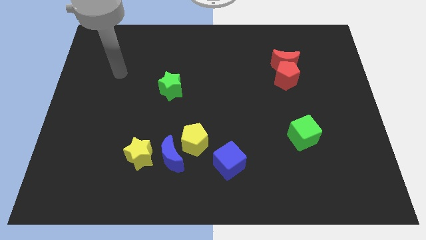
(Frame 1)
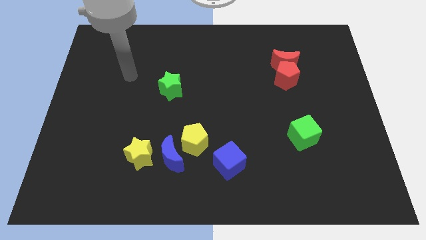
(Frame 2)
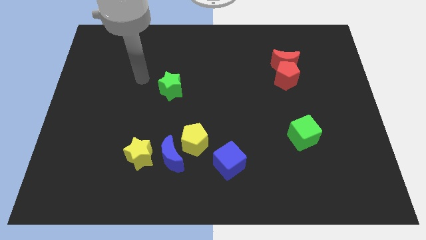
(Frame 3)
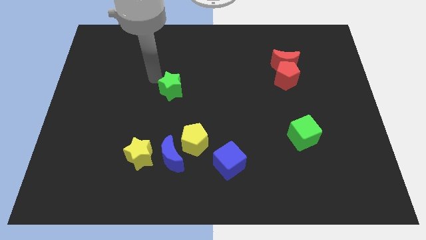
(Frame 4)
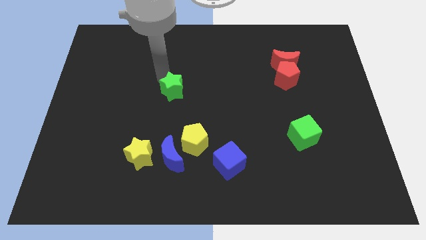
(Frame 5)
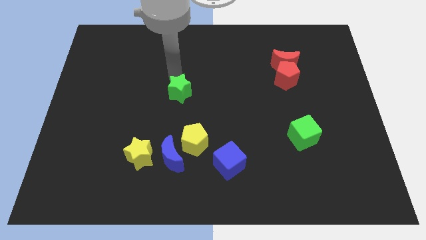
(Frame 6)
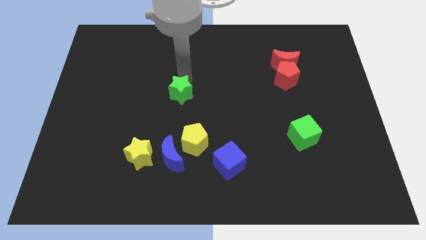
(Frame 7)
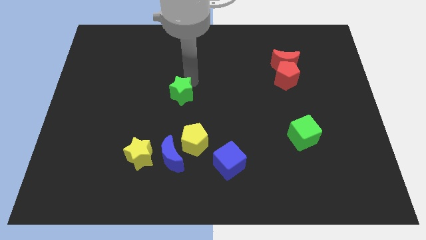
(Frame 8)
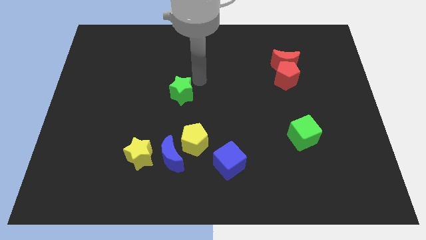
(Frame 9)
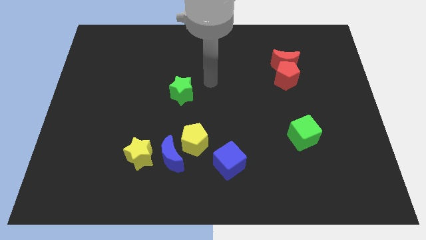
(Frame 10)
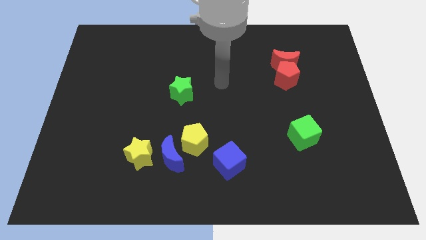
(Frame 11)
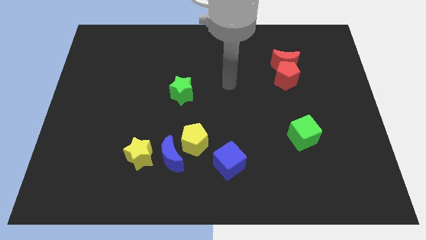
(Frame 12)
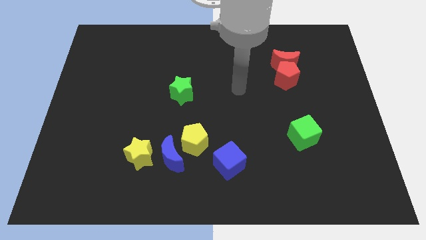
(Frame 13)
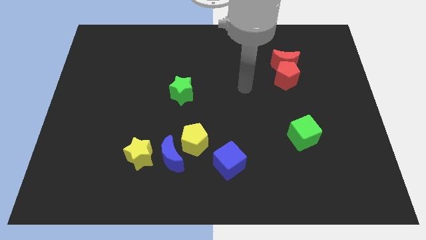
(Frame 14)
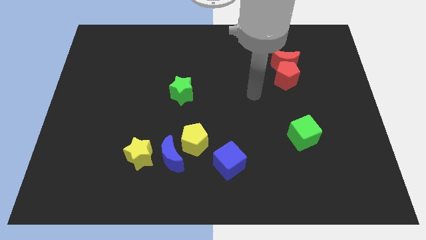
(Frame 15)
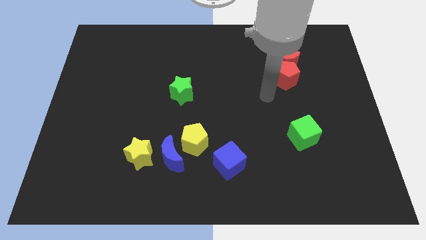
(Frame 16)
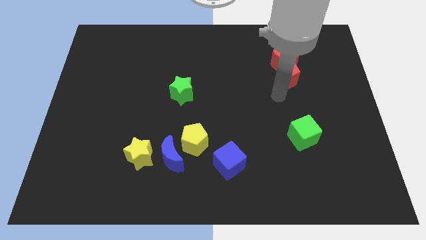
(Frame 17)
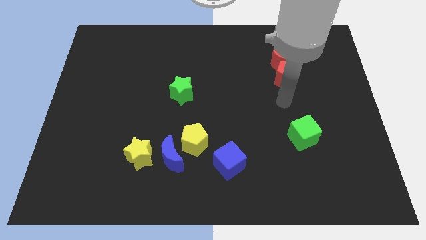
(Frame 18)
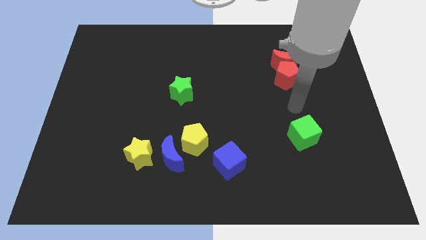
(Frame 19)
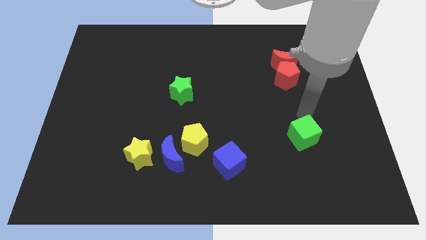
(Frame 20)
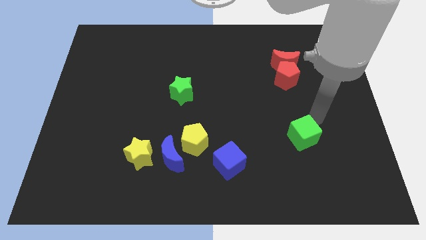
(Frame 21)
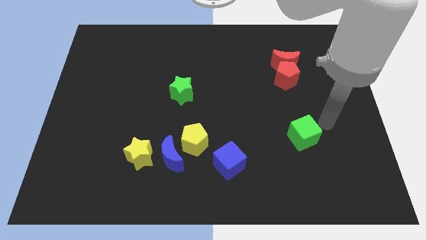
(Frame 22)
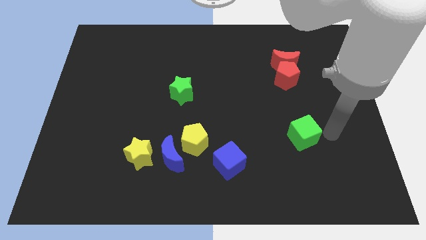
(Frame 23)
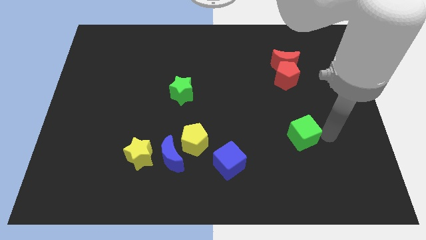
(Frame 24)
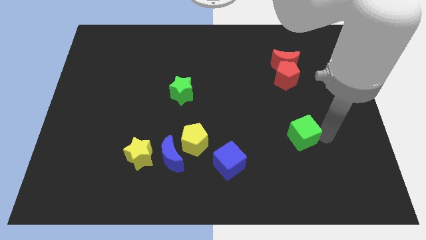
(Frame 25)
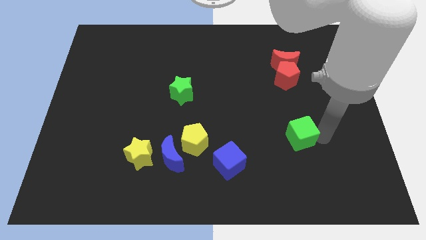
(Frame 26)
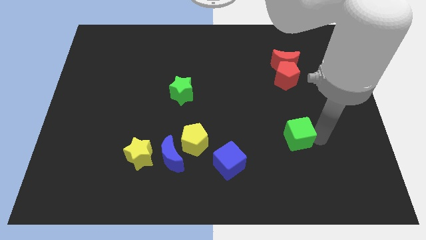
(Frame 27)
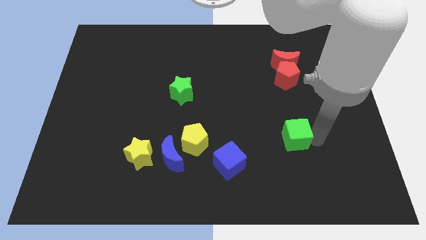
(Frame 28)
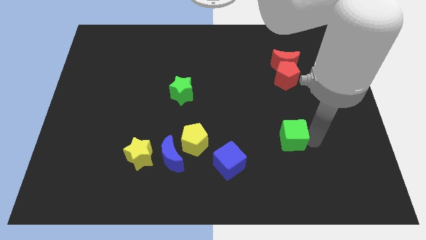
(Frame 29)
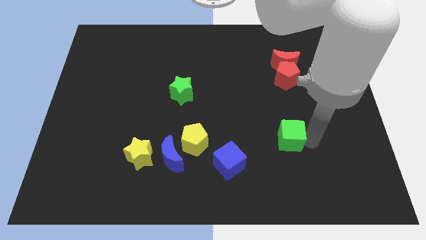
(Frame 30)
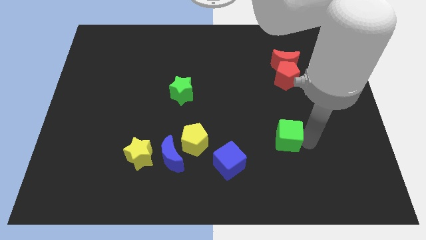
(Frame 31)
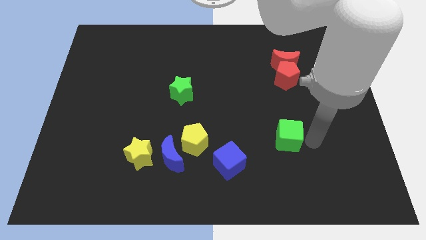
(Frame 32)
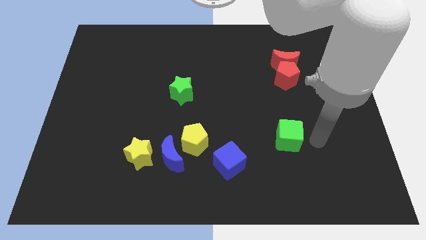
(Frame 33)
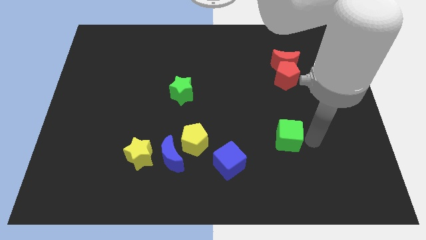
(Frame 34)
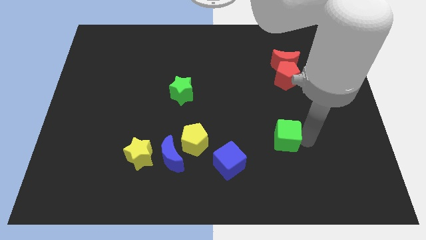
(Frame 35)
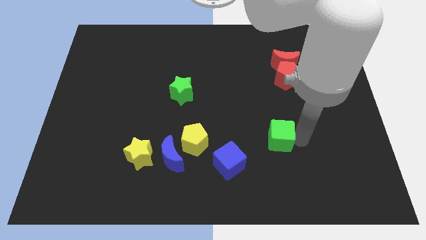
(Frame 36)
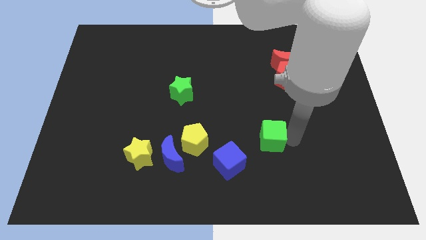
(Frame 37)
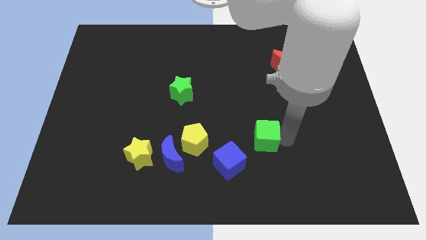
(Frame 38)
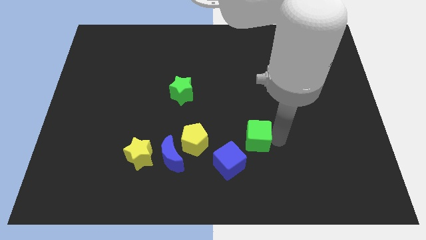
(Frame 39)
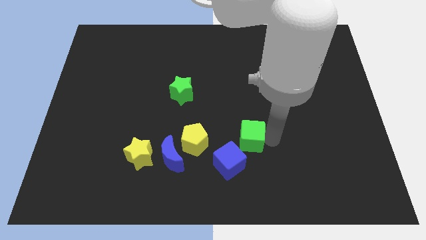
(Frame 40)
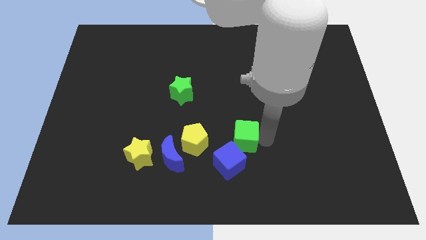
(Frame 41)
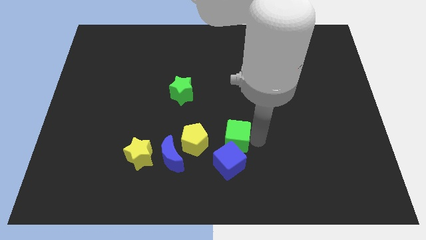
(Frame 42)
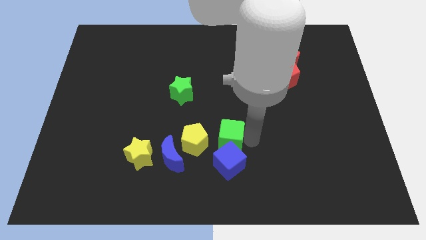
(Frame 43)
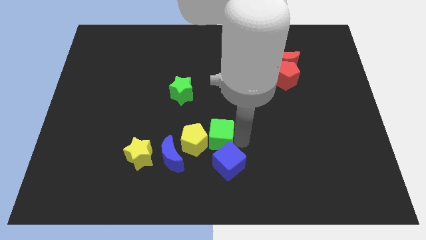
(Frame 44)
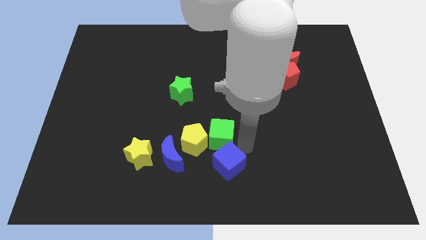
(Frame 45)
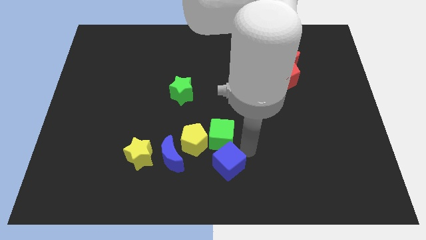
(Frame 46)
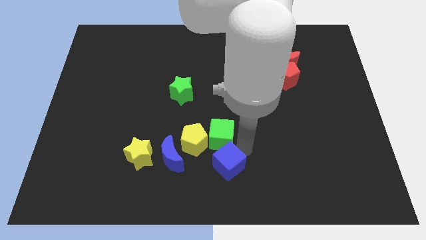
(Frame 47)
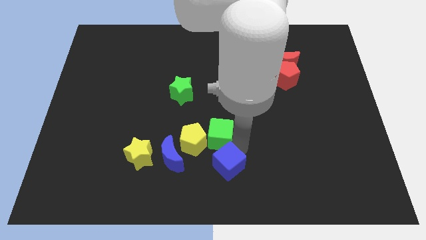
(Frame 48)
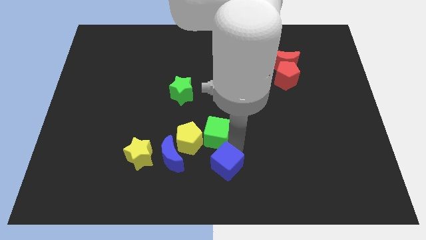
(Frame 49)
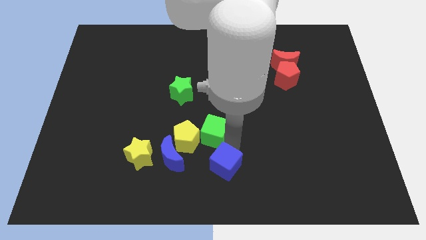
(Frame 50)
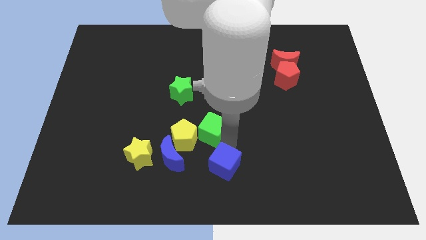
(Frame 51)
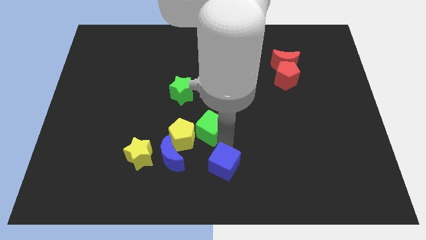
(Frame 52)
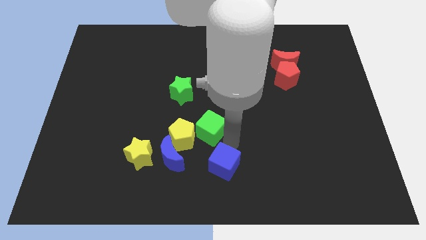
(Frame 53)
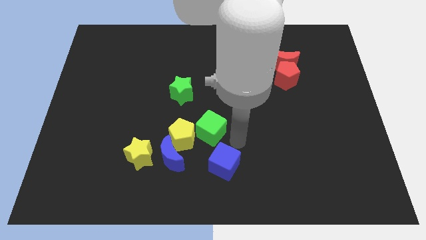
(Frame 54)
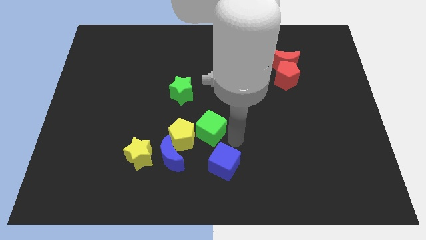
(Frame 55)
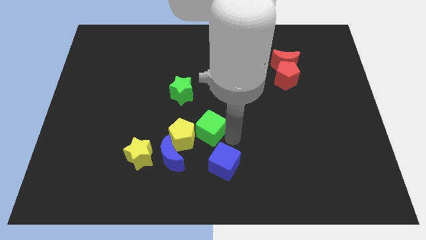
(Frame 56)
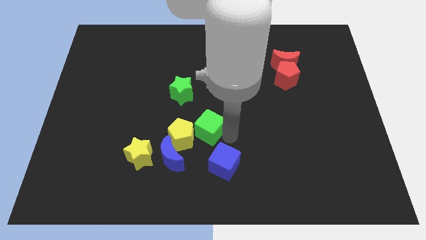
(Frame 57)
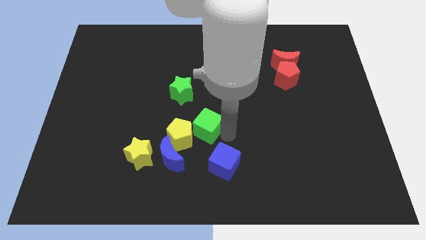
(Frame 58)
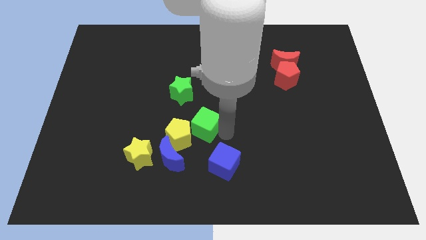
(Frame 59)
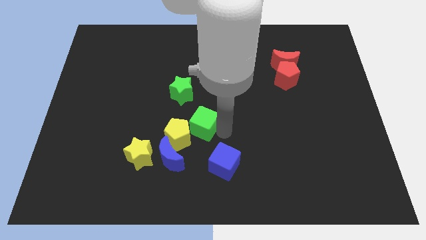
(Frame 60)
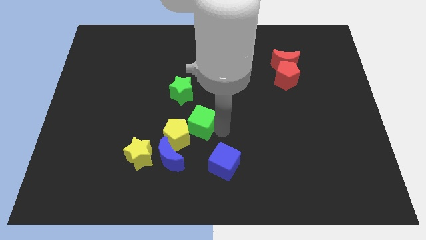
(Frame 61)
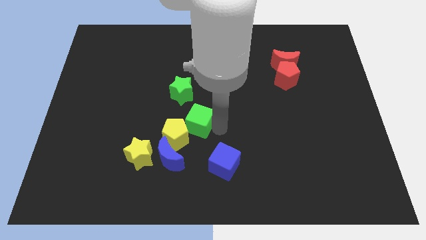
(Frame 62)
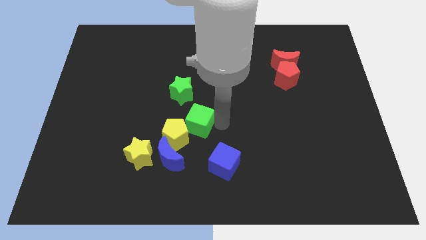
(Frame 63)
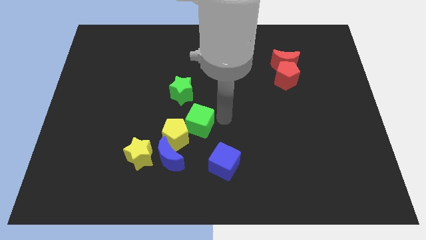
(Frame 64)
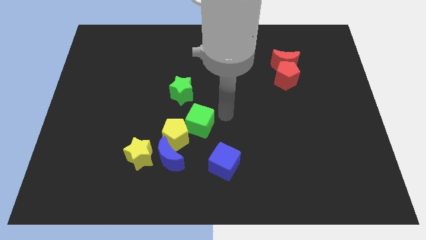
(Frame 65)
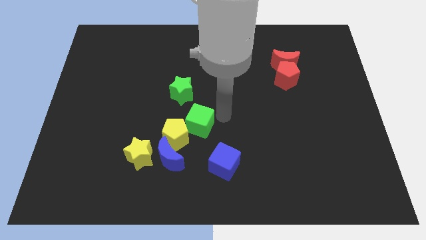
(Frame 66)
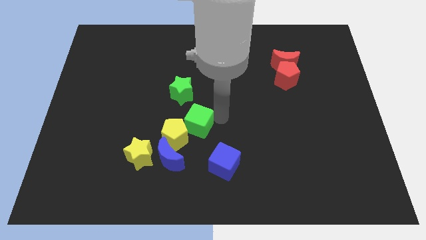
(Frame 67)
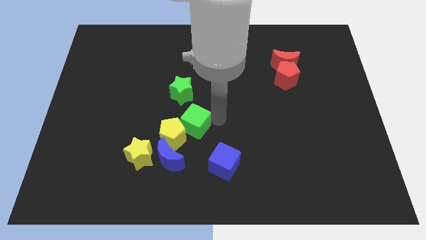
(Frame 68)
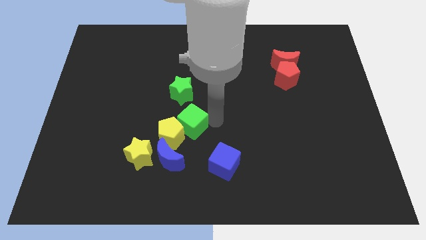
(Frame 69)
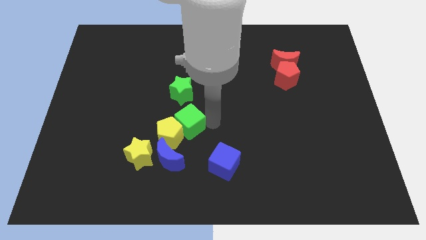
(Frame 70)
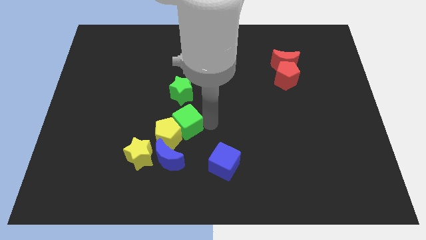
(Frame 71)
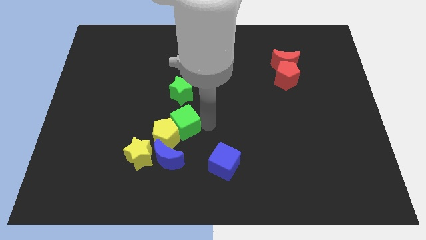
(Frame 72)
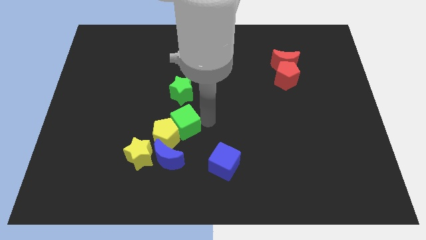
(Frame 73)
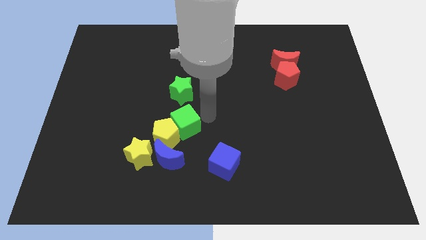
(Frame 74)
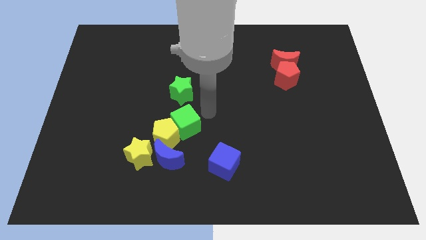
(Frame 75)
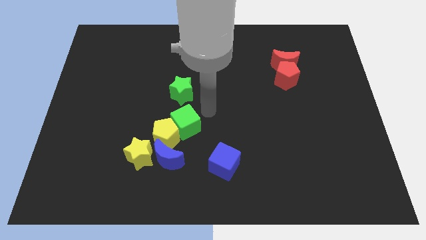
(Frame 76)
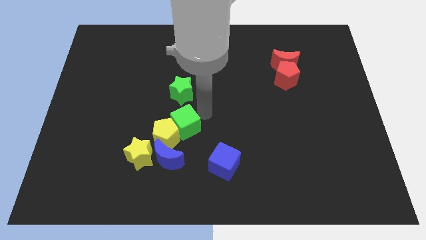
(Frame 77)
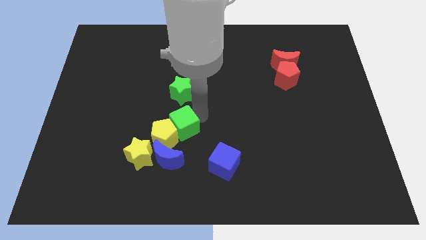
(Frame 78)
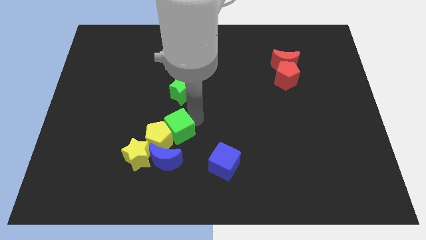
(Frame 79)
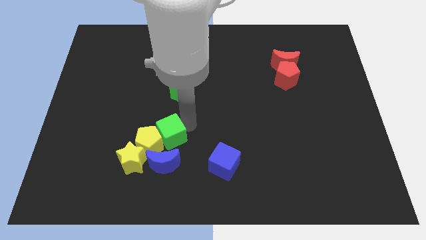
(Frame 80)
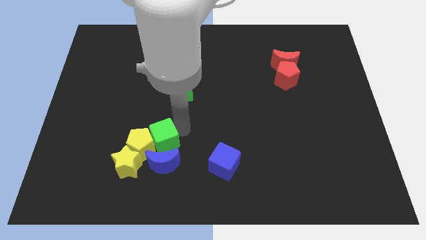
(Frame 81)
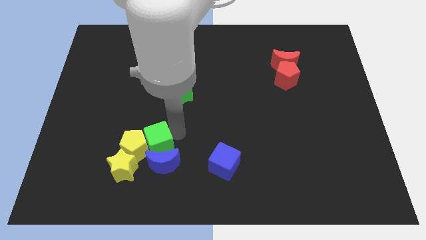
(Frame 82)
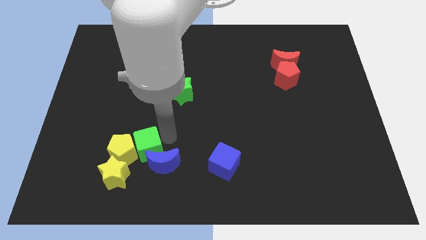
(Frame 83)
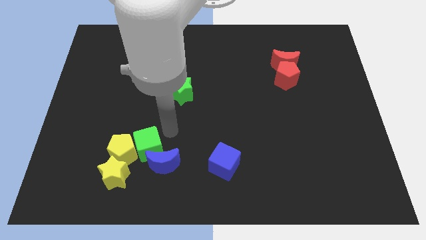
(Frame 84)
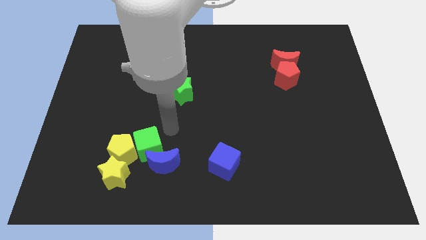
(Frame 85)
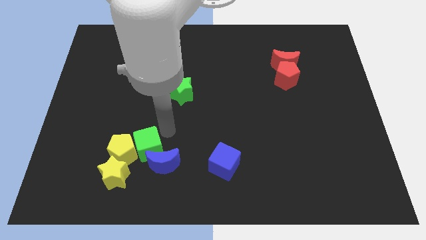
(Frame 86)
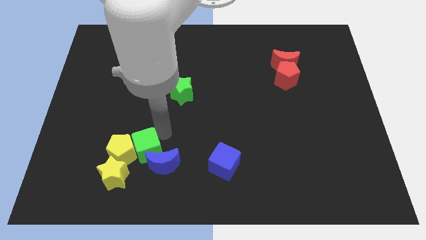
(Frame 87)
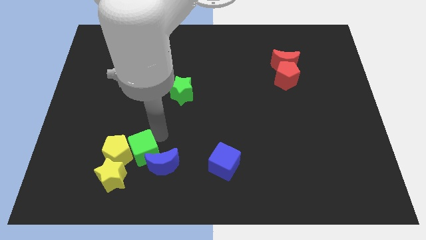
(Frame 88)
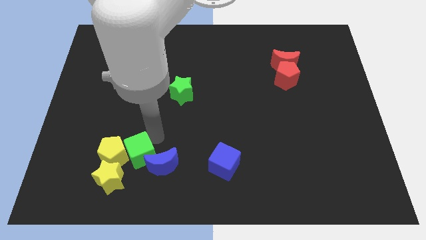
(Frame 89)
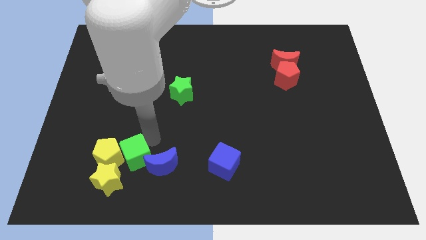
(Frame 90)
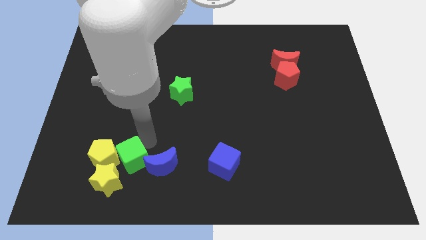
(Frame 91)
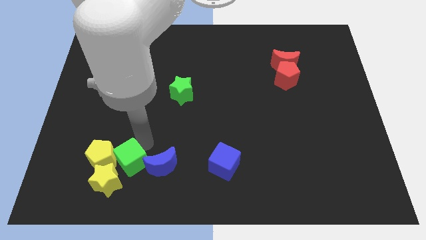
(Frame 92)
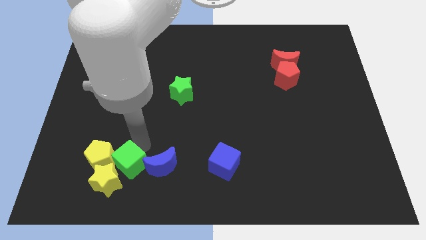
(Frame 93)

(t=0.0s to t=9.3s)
put the green cube next to the yellow star
